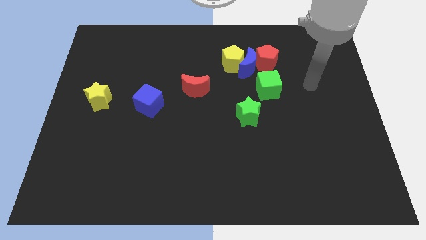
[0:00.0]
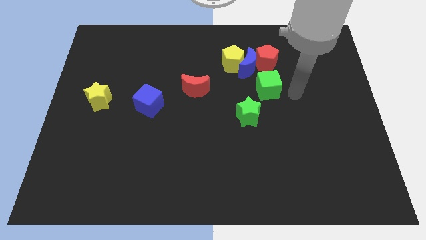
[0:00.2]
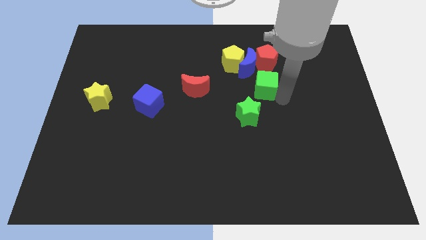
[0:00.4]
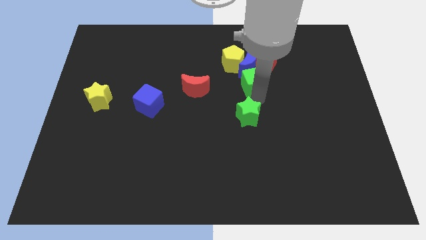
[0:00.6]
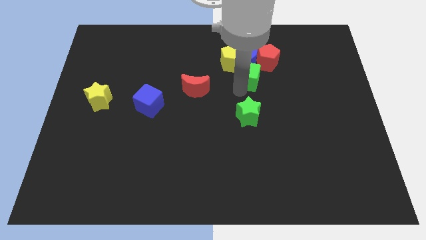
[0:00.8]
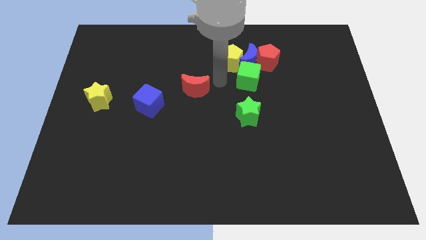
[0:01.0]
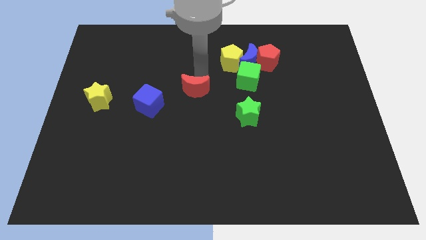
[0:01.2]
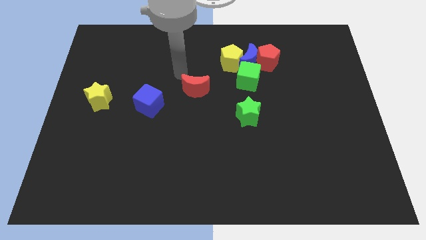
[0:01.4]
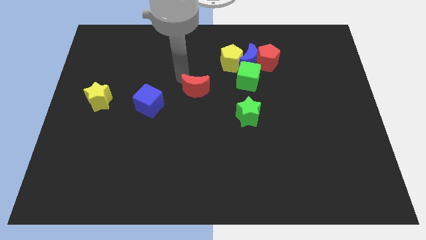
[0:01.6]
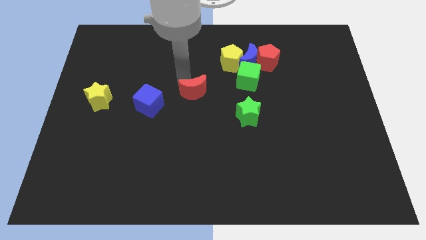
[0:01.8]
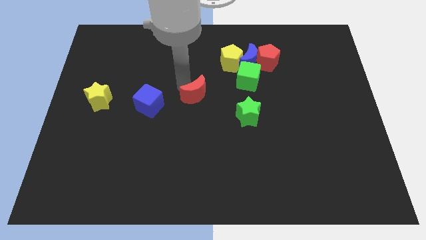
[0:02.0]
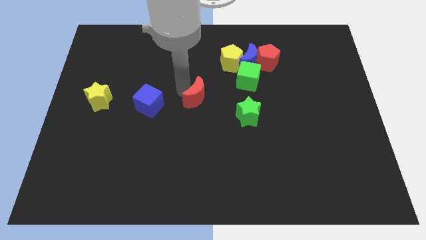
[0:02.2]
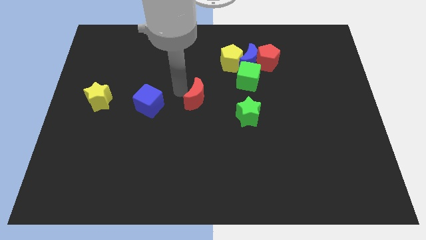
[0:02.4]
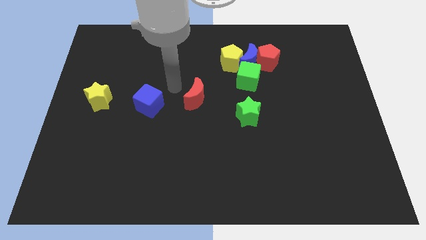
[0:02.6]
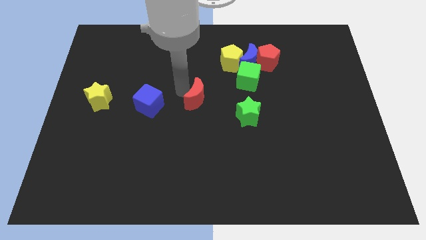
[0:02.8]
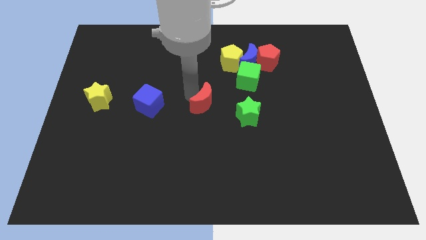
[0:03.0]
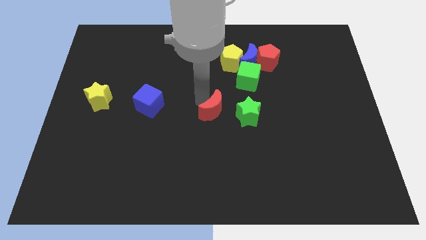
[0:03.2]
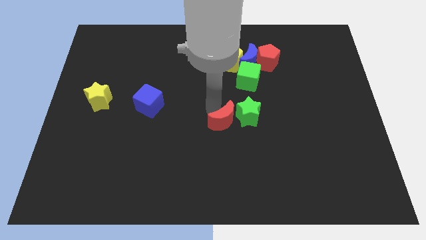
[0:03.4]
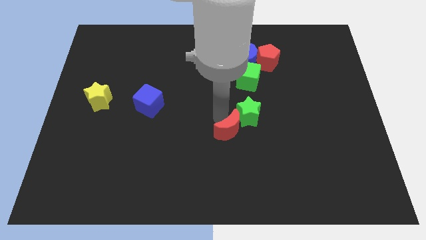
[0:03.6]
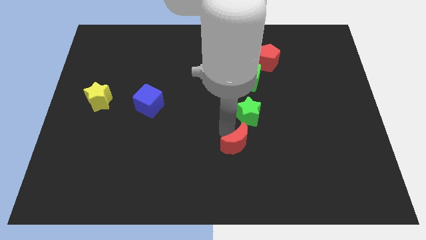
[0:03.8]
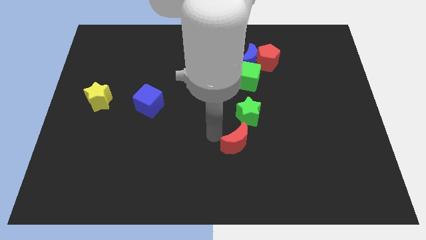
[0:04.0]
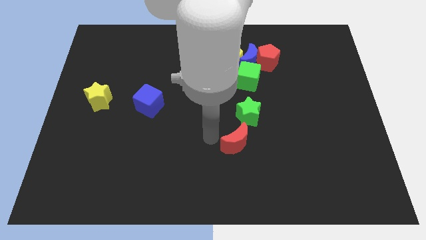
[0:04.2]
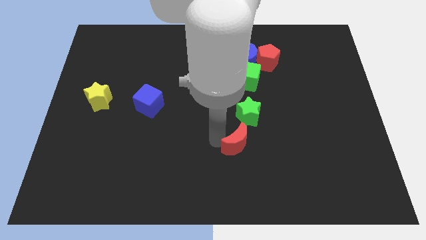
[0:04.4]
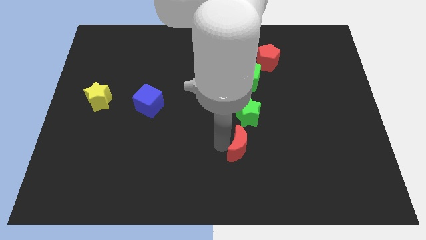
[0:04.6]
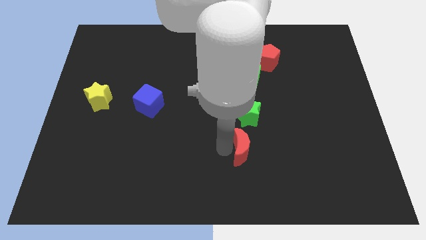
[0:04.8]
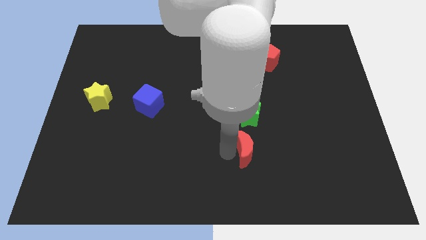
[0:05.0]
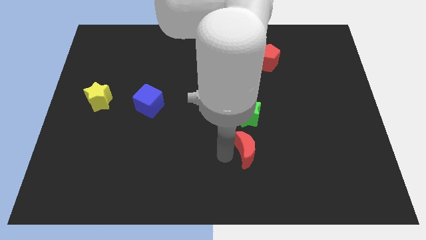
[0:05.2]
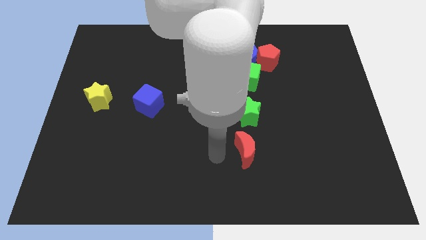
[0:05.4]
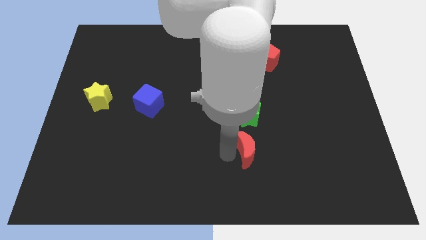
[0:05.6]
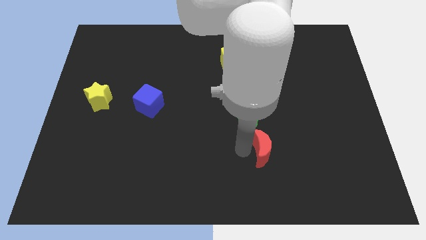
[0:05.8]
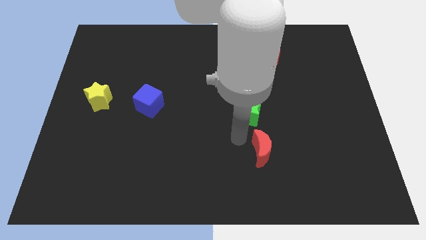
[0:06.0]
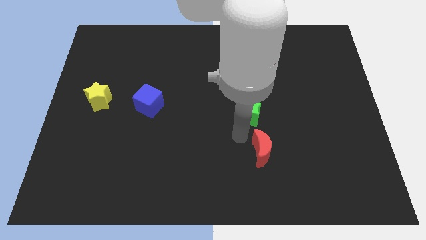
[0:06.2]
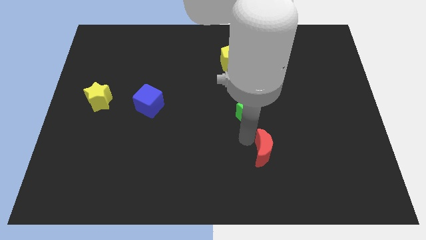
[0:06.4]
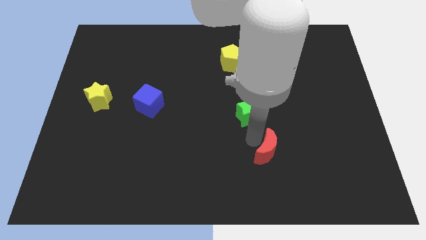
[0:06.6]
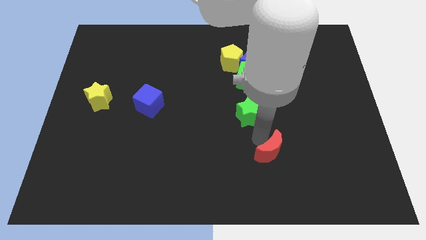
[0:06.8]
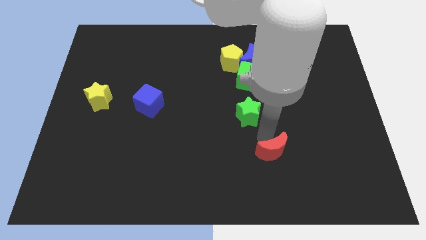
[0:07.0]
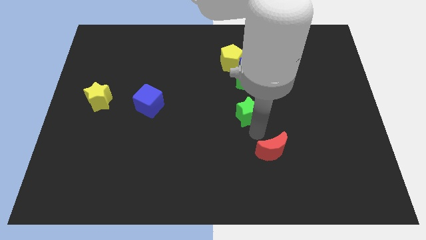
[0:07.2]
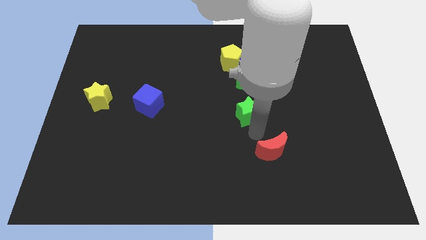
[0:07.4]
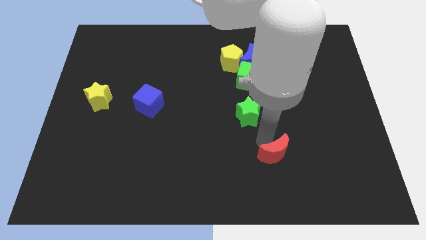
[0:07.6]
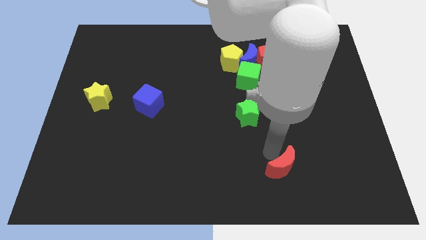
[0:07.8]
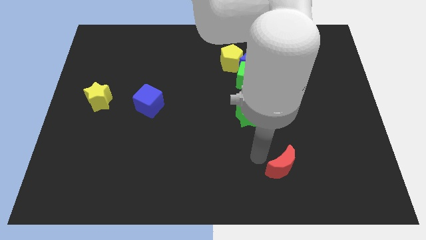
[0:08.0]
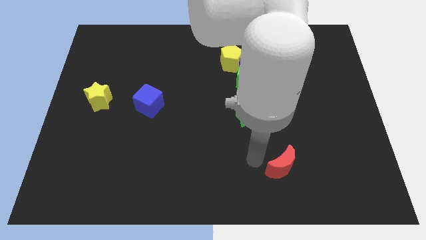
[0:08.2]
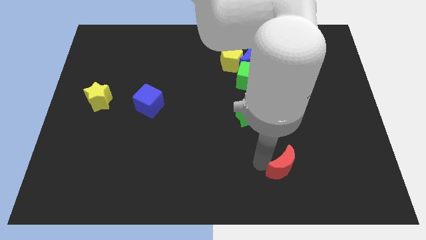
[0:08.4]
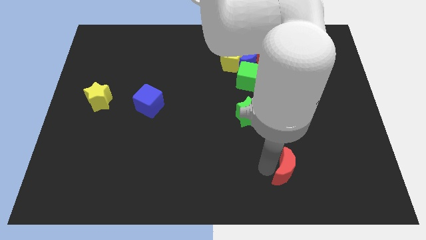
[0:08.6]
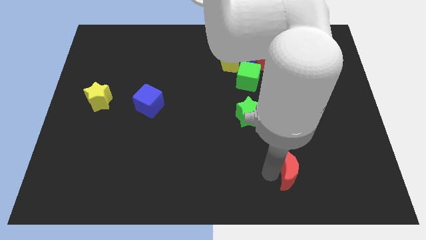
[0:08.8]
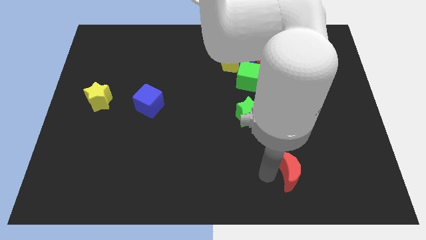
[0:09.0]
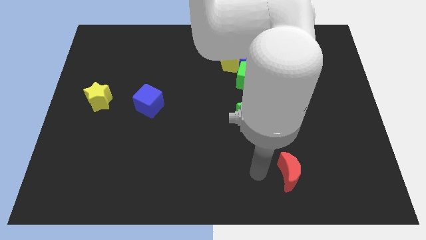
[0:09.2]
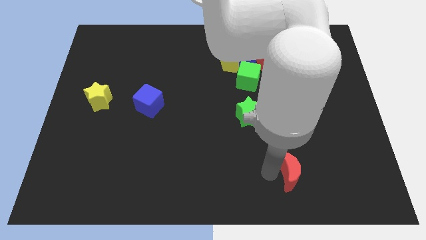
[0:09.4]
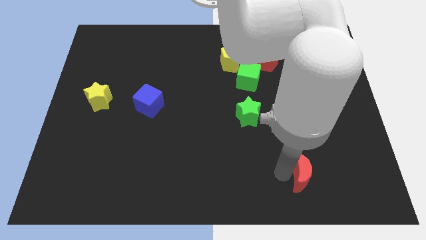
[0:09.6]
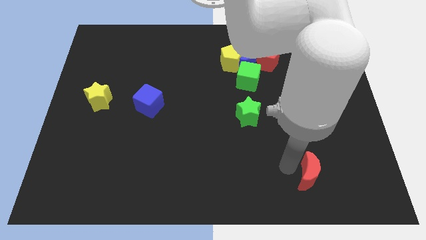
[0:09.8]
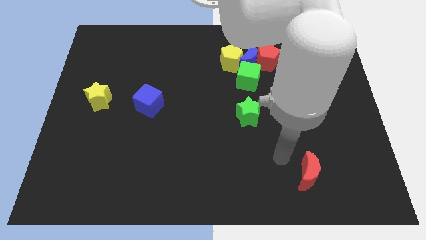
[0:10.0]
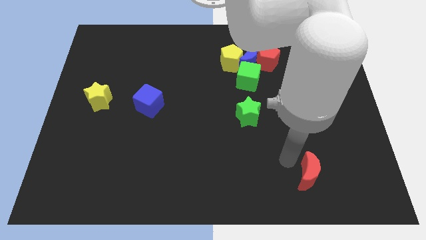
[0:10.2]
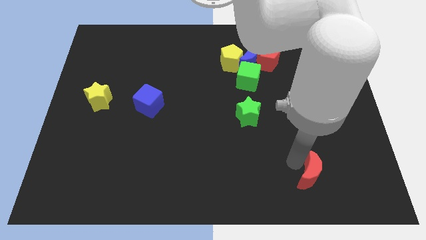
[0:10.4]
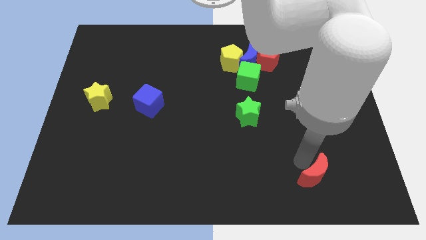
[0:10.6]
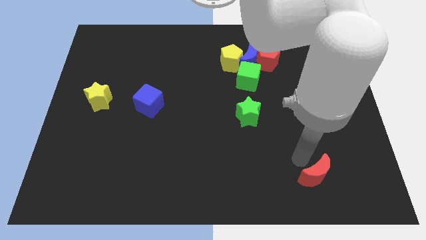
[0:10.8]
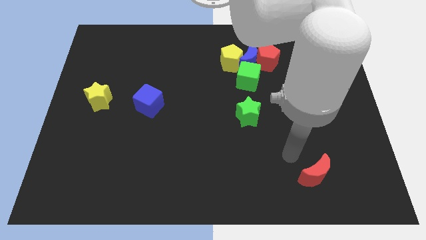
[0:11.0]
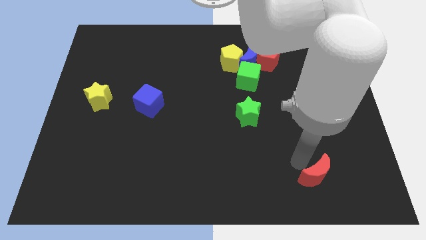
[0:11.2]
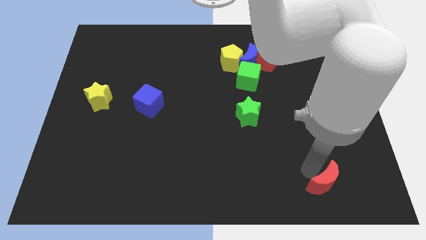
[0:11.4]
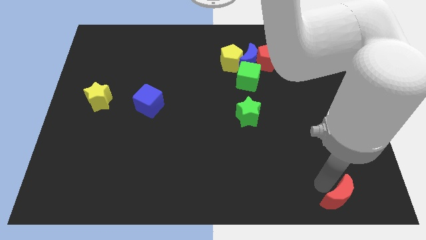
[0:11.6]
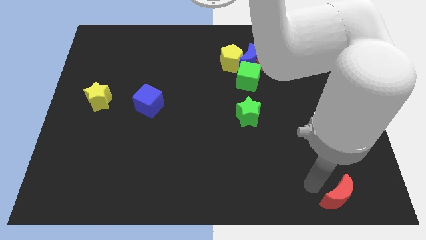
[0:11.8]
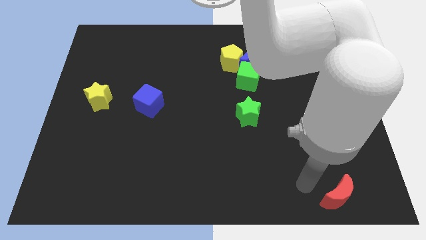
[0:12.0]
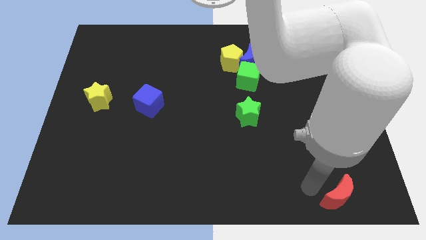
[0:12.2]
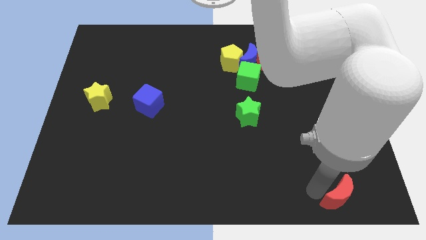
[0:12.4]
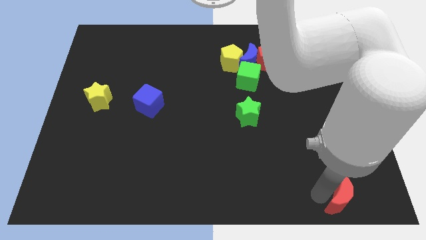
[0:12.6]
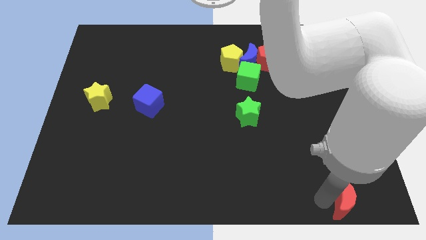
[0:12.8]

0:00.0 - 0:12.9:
push the red moon to the bottom right of the board
